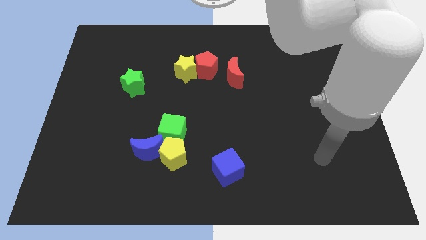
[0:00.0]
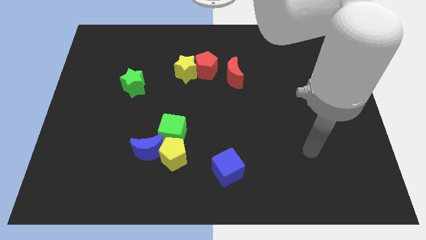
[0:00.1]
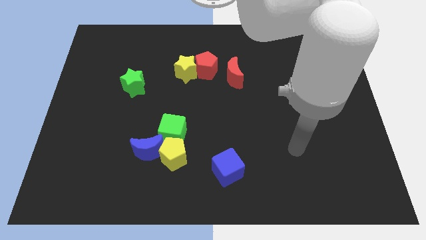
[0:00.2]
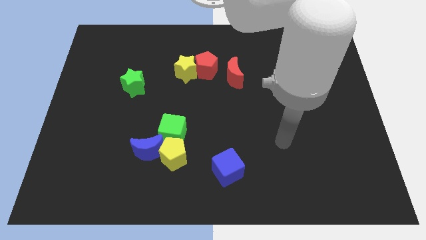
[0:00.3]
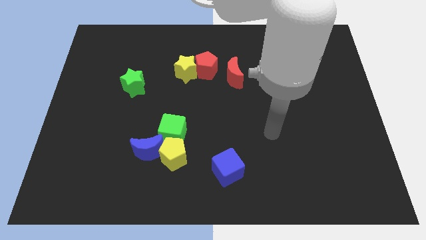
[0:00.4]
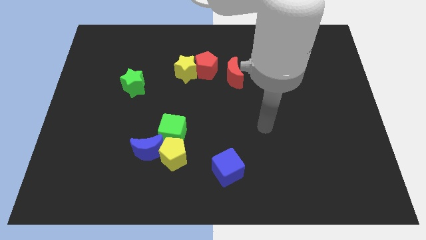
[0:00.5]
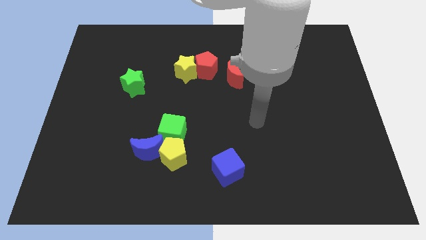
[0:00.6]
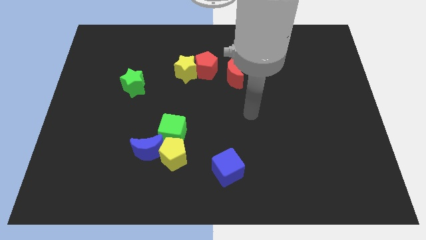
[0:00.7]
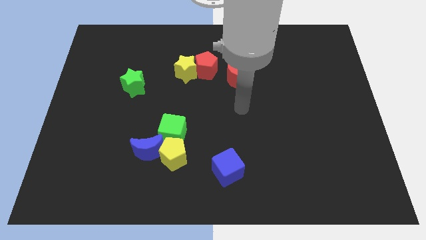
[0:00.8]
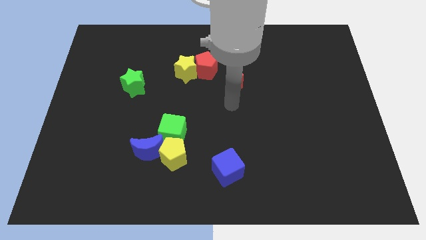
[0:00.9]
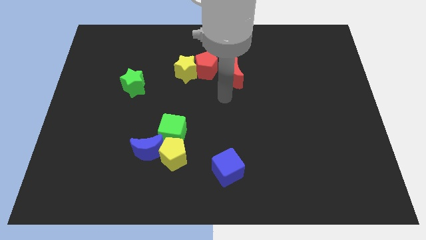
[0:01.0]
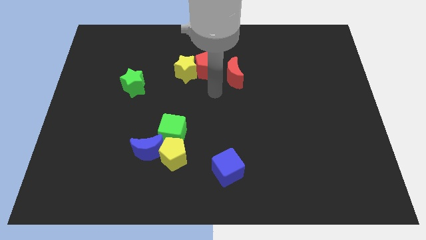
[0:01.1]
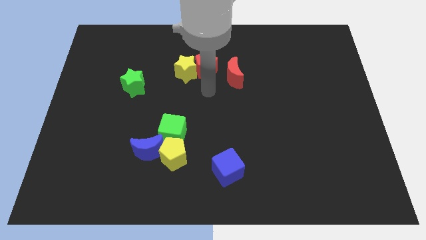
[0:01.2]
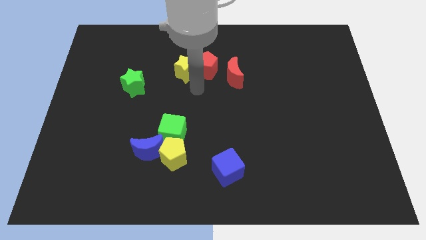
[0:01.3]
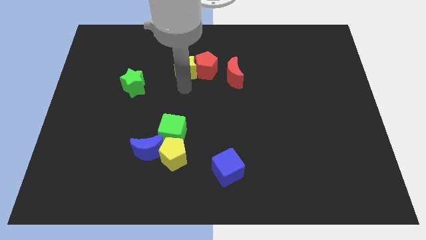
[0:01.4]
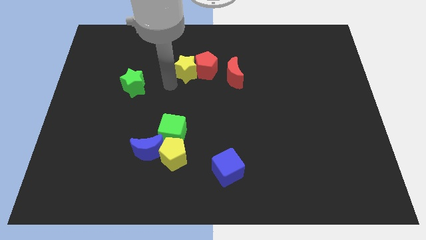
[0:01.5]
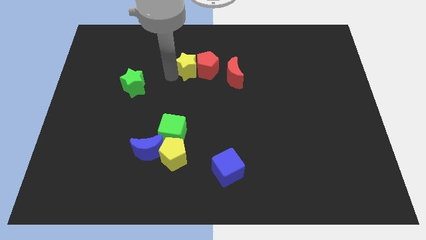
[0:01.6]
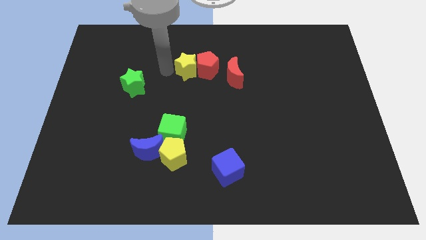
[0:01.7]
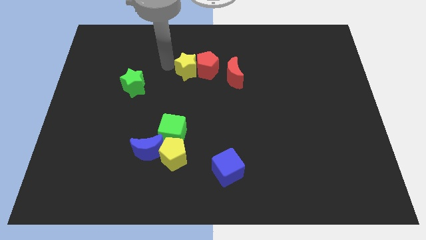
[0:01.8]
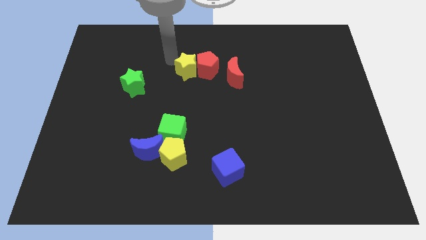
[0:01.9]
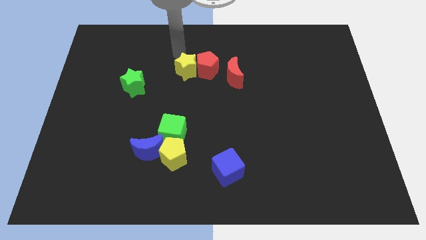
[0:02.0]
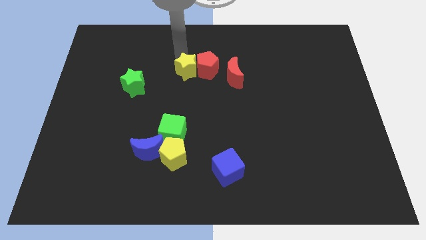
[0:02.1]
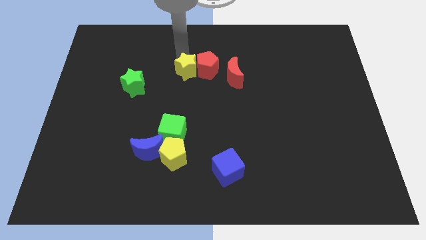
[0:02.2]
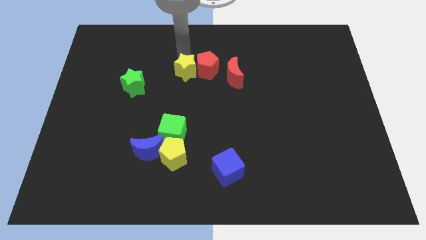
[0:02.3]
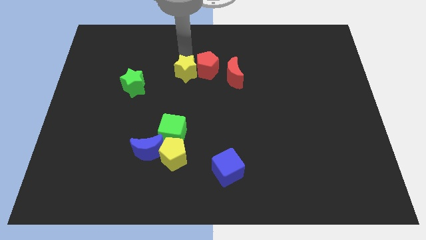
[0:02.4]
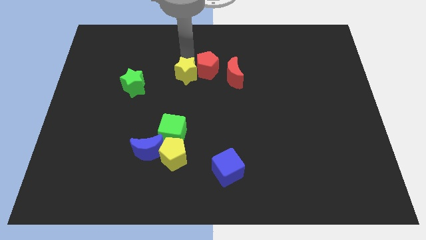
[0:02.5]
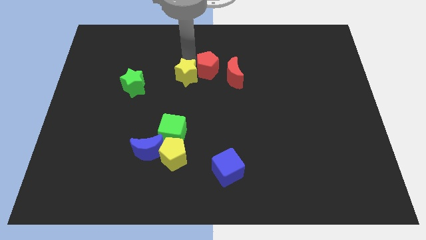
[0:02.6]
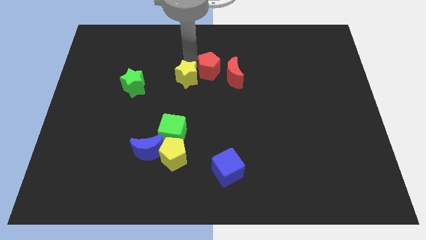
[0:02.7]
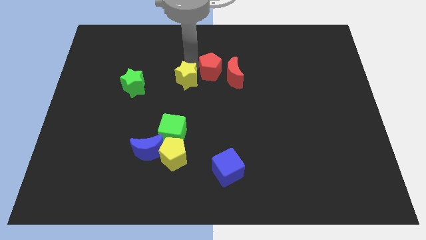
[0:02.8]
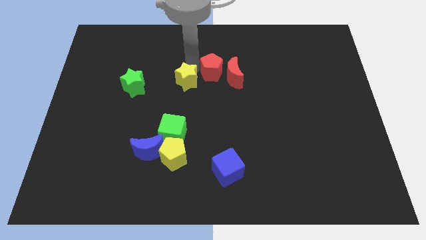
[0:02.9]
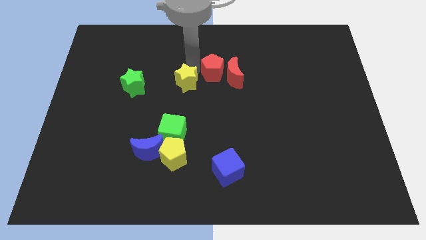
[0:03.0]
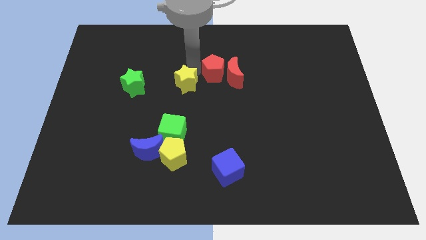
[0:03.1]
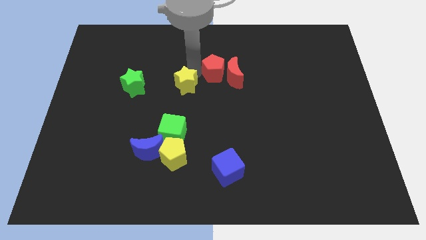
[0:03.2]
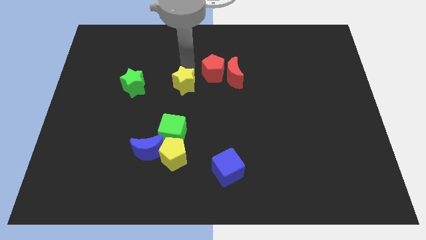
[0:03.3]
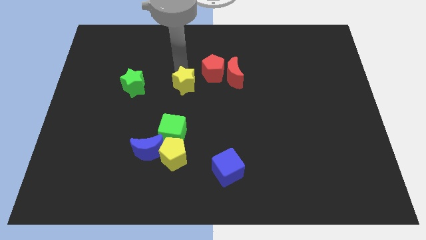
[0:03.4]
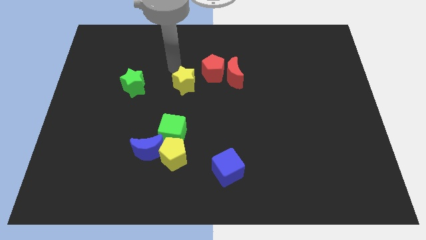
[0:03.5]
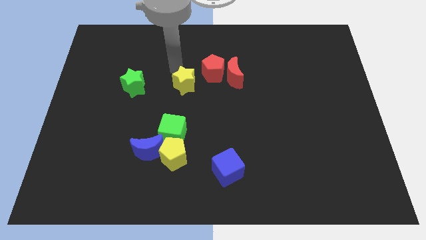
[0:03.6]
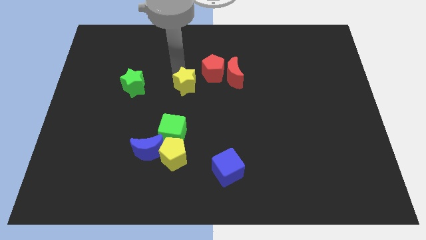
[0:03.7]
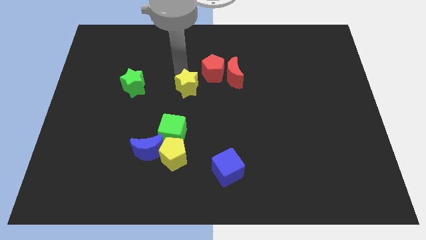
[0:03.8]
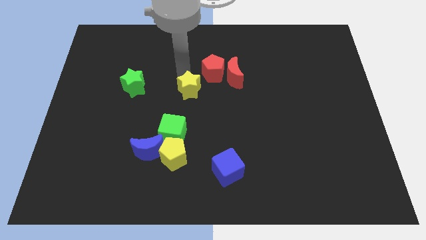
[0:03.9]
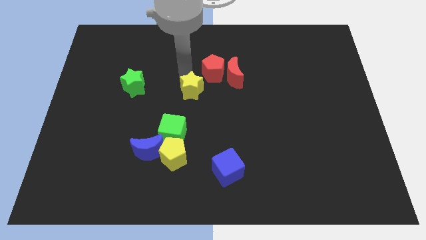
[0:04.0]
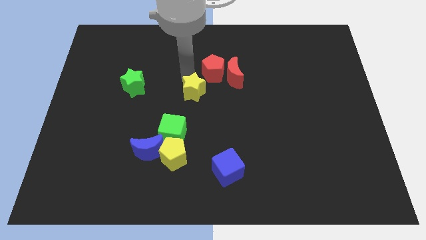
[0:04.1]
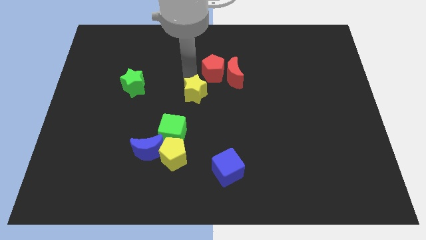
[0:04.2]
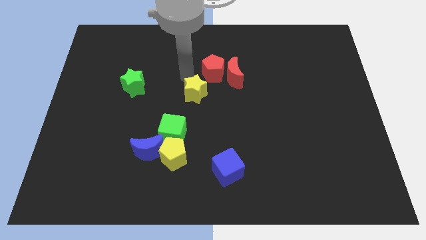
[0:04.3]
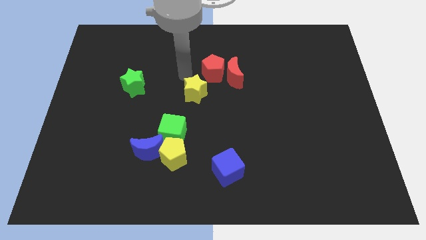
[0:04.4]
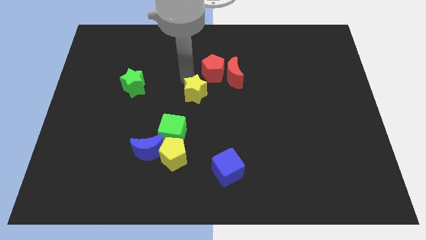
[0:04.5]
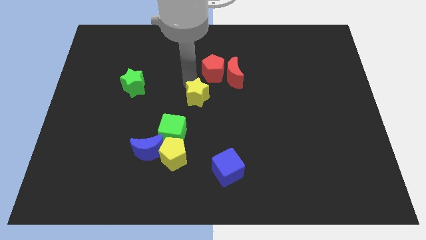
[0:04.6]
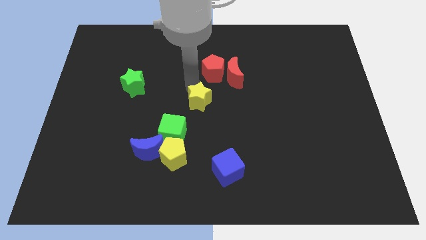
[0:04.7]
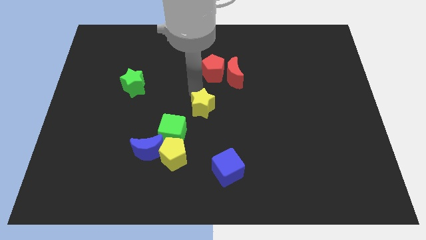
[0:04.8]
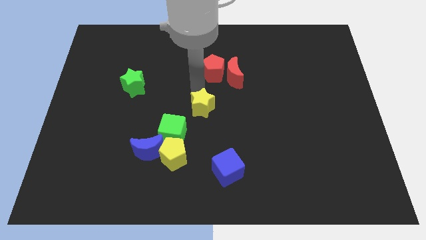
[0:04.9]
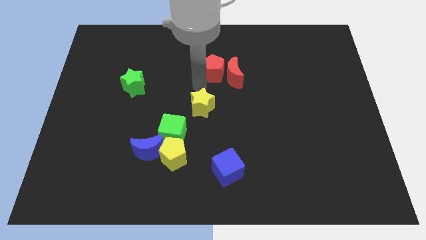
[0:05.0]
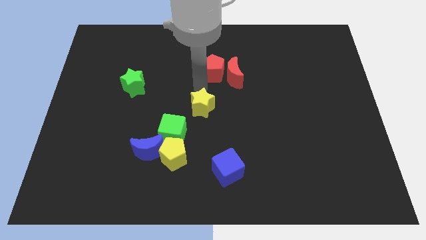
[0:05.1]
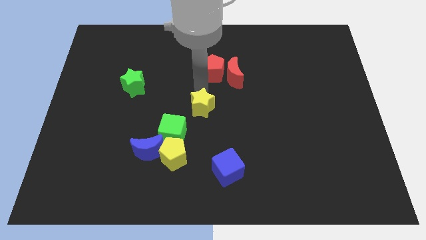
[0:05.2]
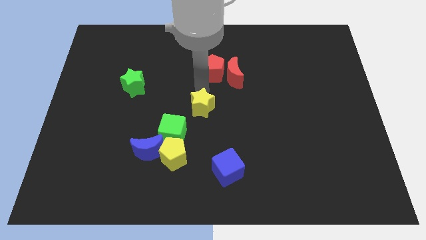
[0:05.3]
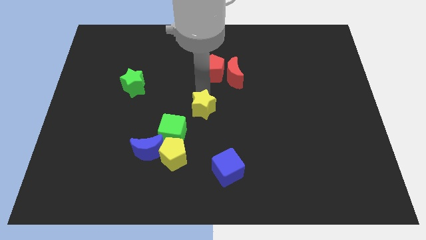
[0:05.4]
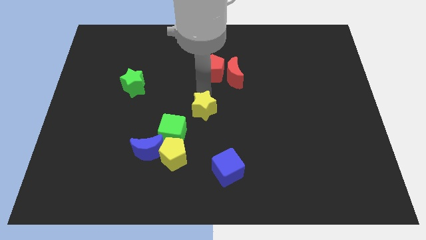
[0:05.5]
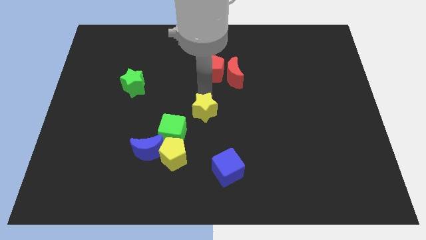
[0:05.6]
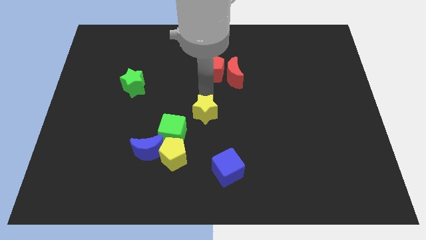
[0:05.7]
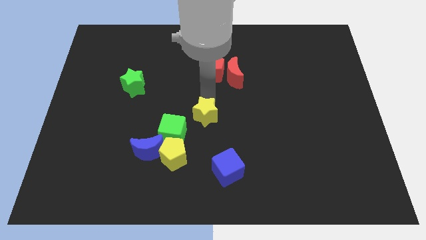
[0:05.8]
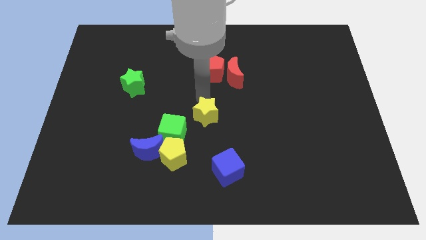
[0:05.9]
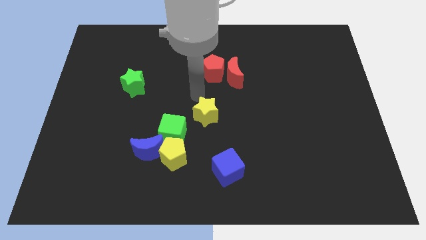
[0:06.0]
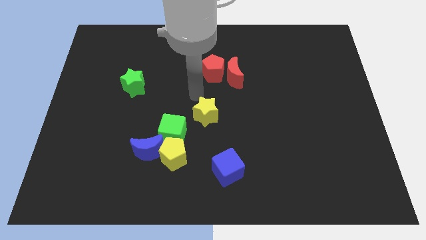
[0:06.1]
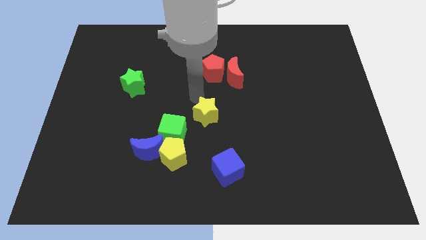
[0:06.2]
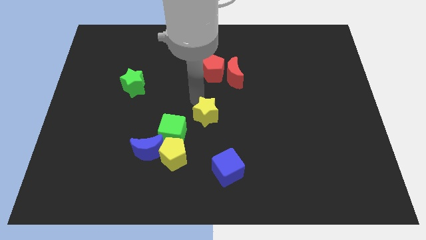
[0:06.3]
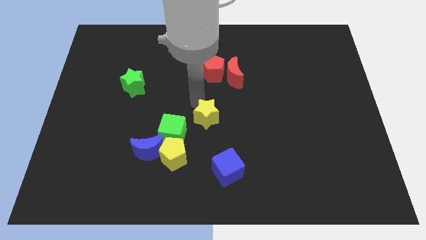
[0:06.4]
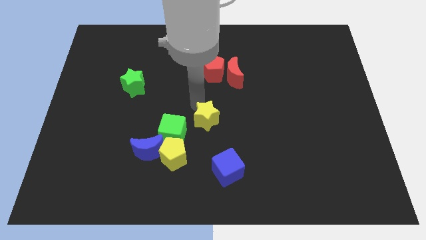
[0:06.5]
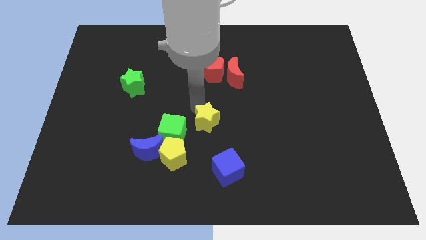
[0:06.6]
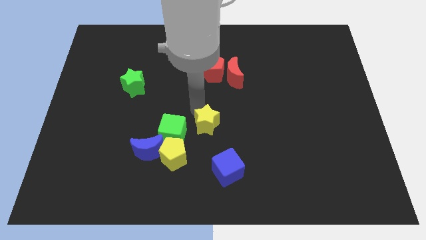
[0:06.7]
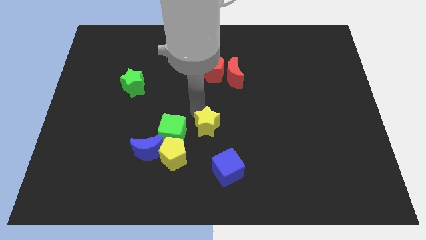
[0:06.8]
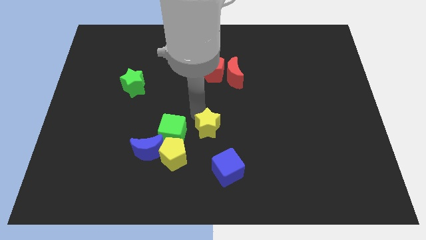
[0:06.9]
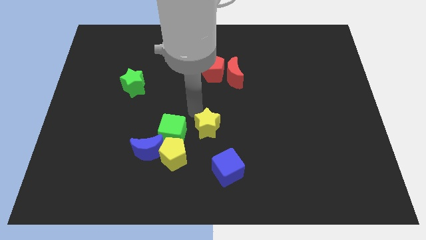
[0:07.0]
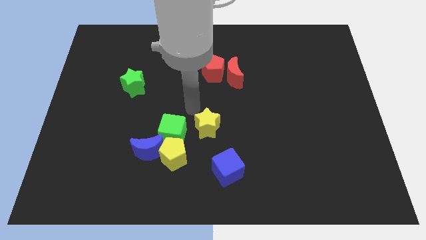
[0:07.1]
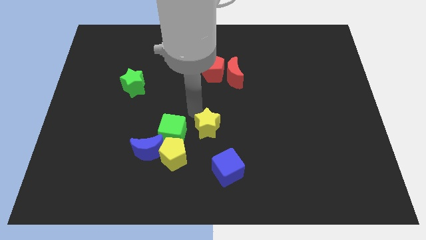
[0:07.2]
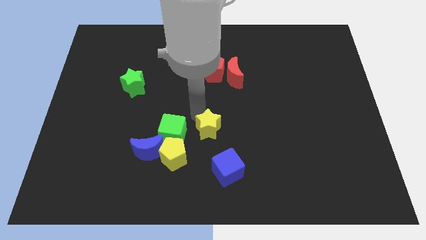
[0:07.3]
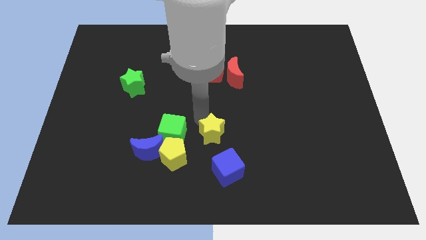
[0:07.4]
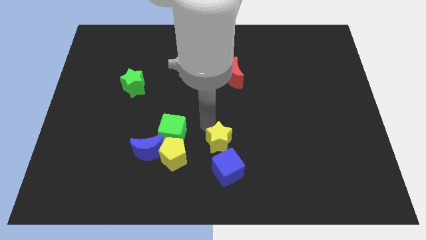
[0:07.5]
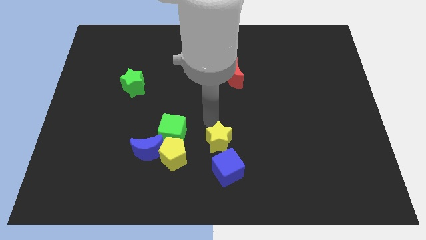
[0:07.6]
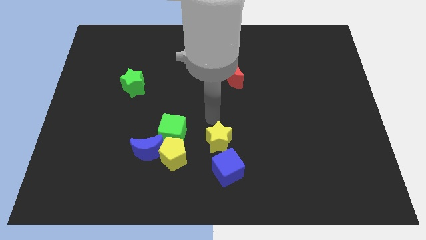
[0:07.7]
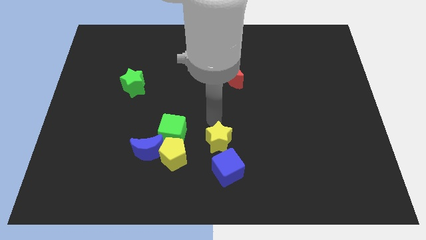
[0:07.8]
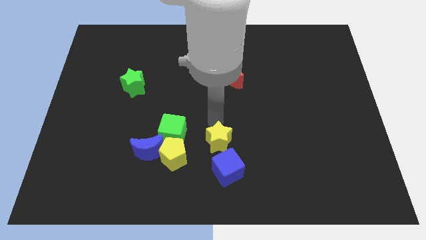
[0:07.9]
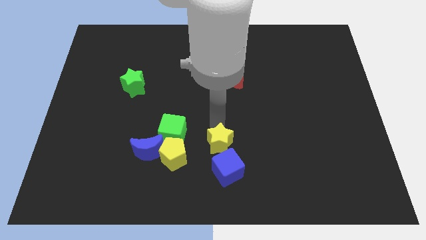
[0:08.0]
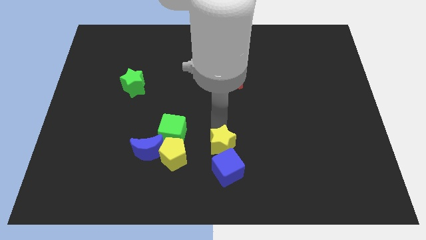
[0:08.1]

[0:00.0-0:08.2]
move the yellow star next to the blue cube
